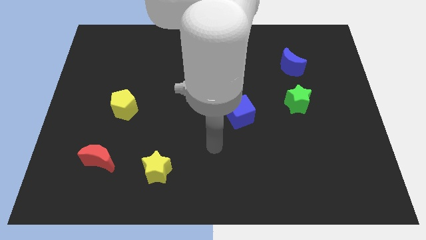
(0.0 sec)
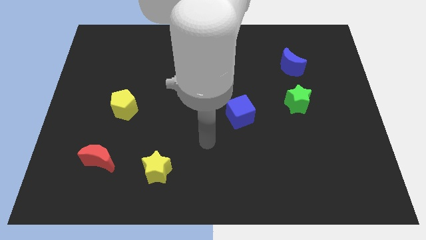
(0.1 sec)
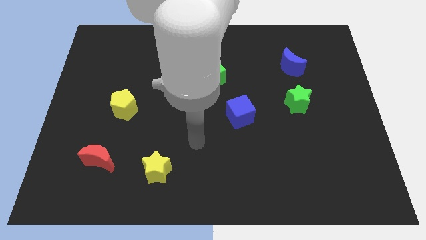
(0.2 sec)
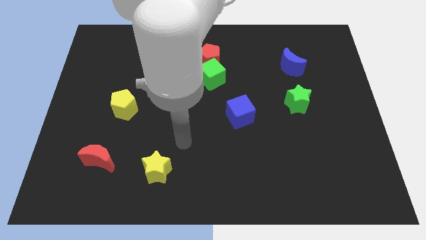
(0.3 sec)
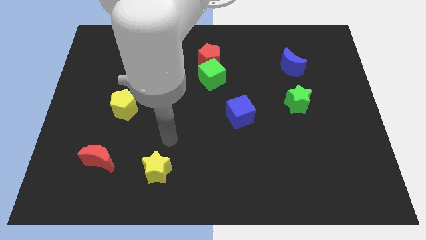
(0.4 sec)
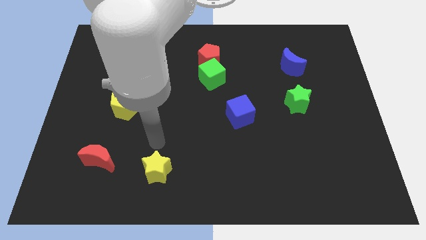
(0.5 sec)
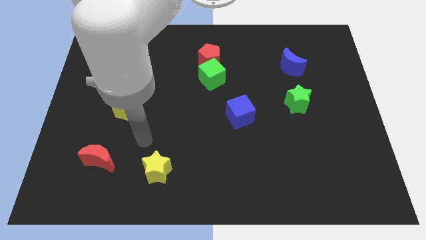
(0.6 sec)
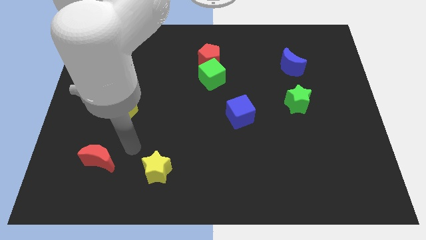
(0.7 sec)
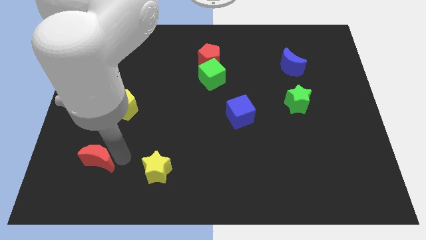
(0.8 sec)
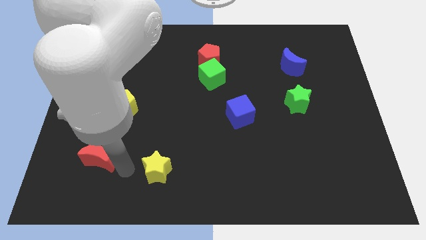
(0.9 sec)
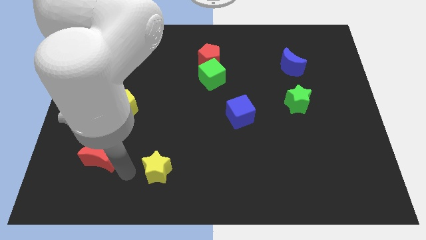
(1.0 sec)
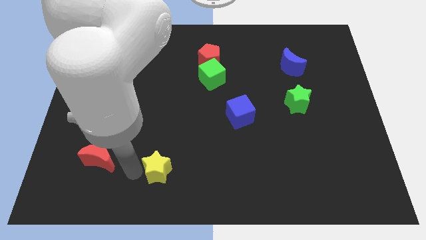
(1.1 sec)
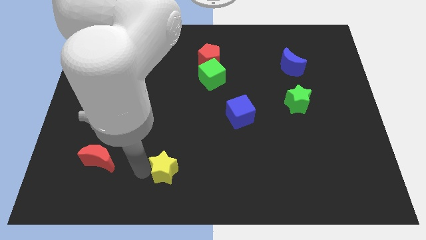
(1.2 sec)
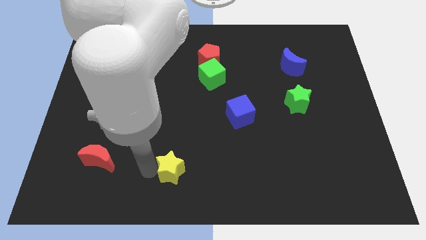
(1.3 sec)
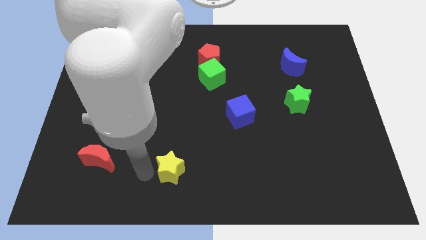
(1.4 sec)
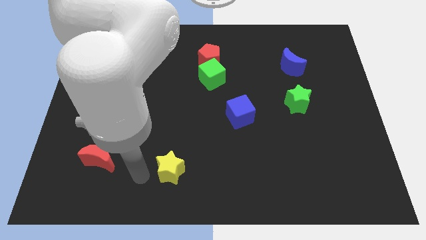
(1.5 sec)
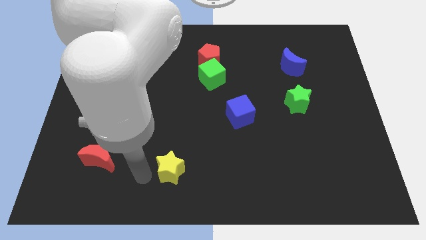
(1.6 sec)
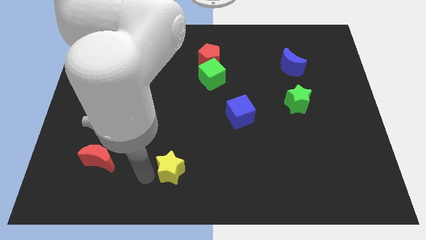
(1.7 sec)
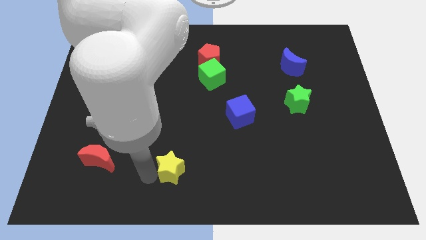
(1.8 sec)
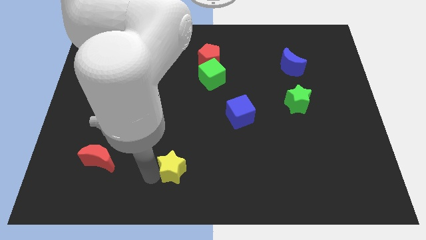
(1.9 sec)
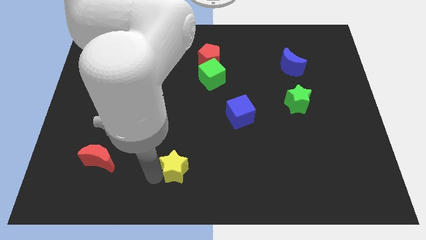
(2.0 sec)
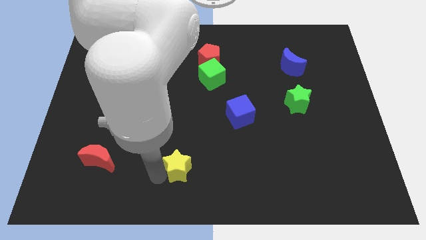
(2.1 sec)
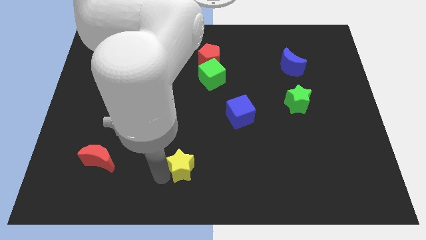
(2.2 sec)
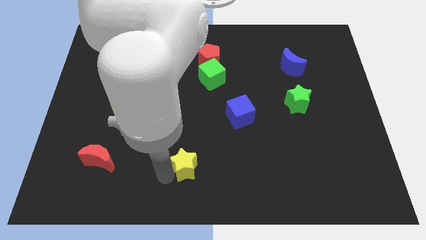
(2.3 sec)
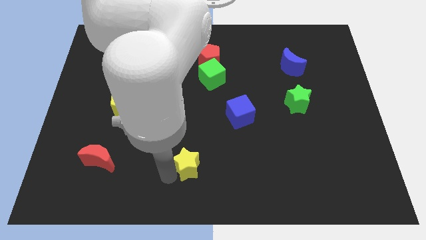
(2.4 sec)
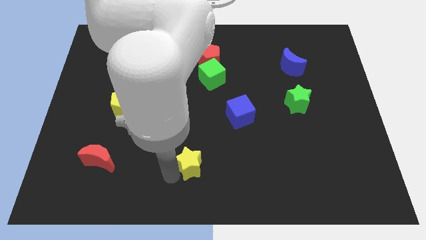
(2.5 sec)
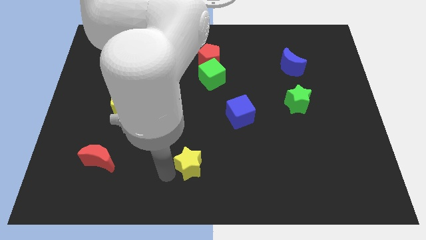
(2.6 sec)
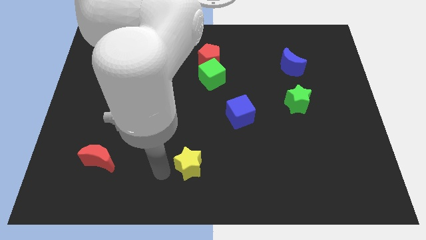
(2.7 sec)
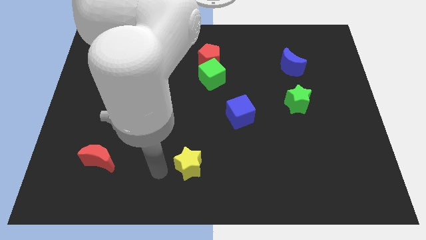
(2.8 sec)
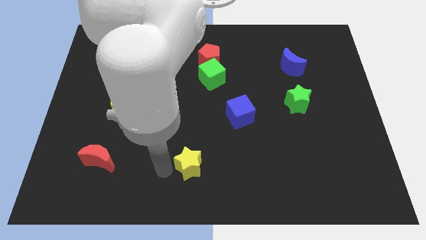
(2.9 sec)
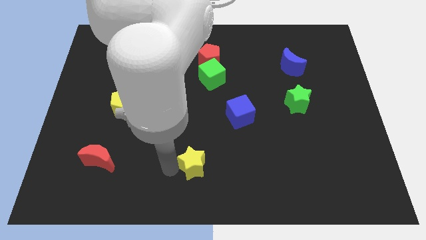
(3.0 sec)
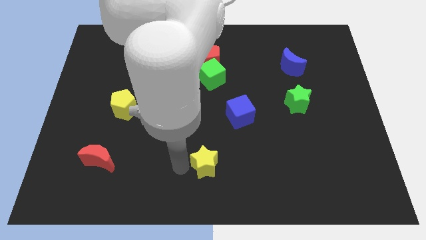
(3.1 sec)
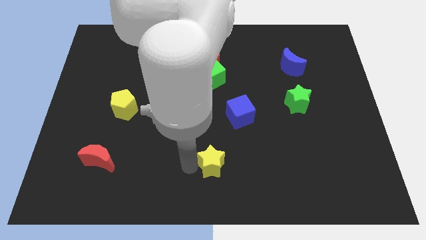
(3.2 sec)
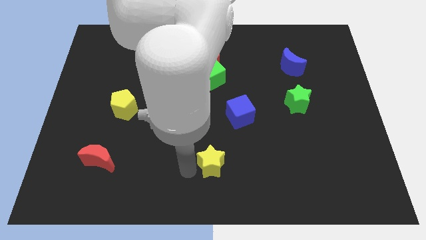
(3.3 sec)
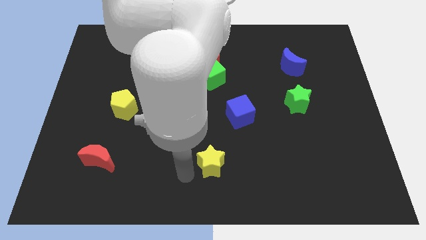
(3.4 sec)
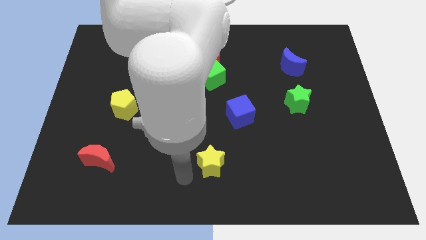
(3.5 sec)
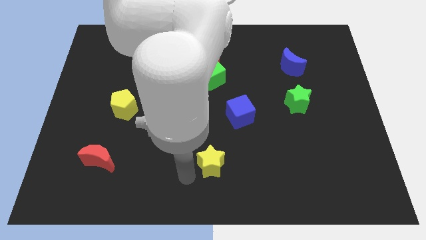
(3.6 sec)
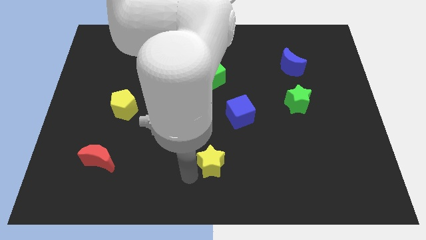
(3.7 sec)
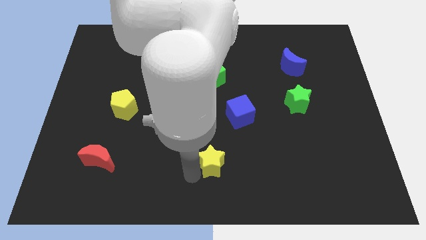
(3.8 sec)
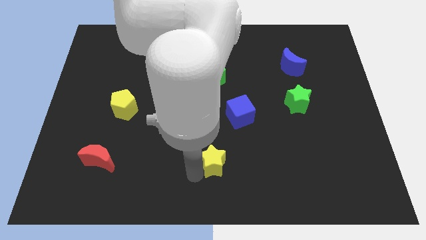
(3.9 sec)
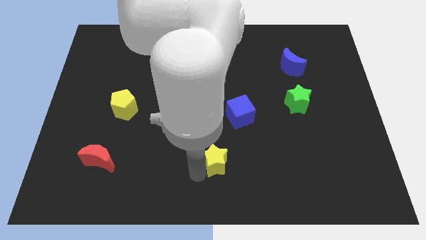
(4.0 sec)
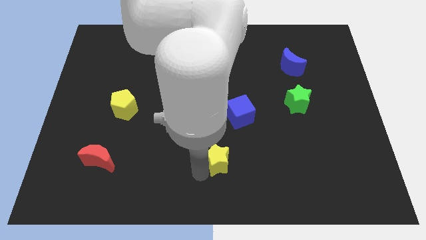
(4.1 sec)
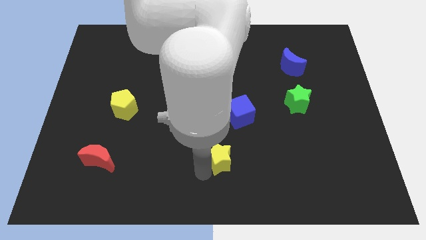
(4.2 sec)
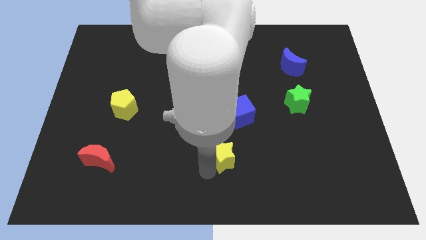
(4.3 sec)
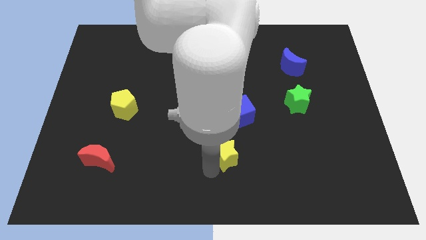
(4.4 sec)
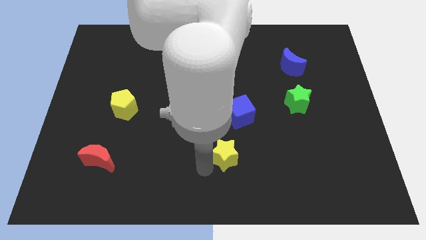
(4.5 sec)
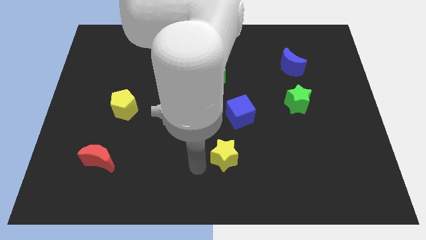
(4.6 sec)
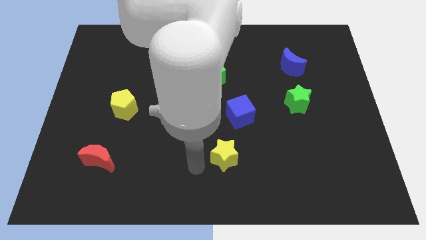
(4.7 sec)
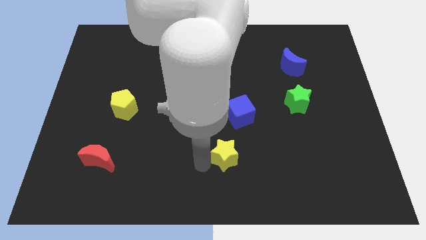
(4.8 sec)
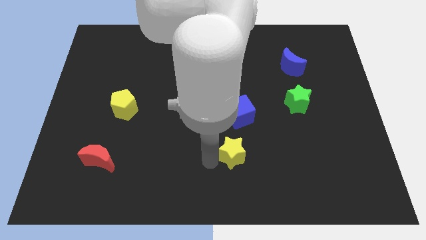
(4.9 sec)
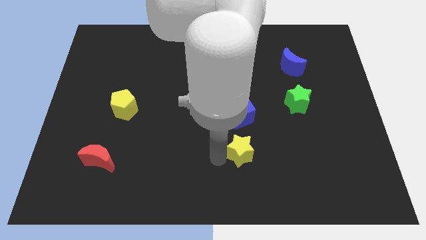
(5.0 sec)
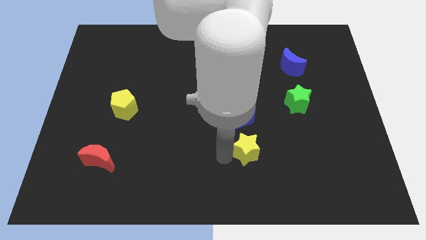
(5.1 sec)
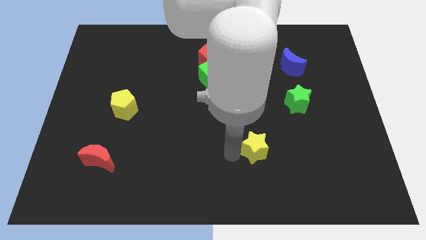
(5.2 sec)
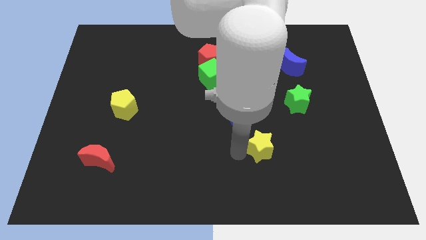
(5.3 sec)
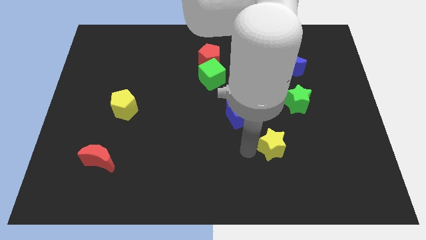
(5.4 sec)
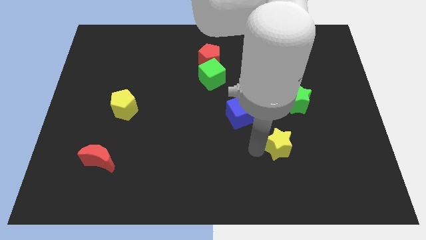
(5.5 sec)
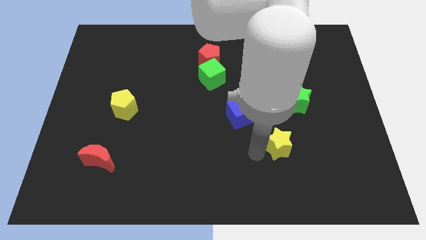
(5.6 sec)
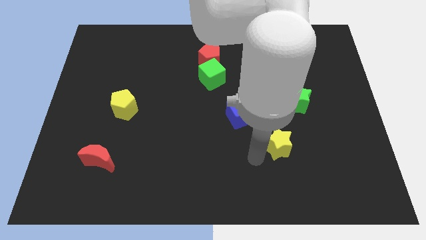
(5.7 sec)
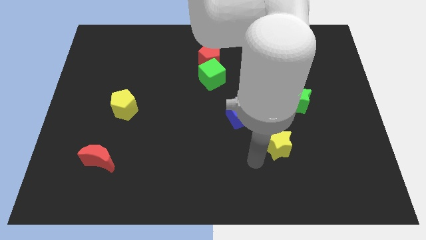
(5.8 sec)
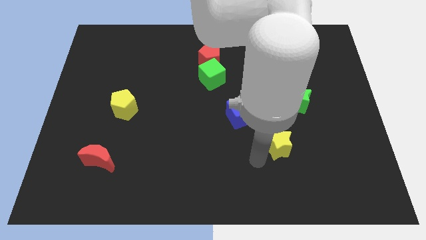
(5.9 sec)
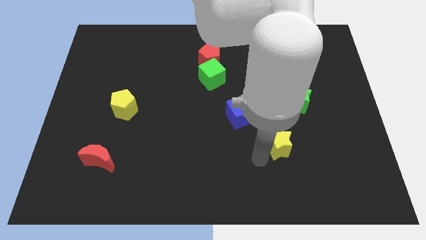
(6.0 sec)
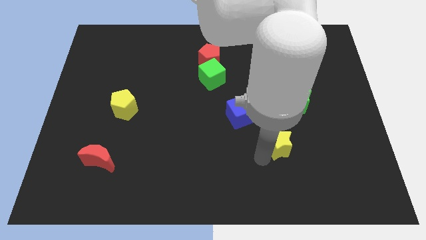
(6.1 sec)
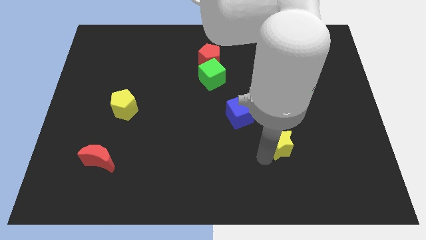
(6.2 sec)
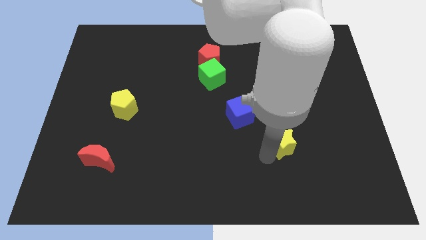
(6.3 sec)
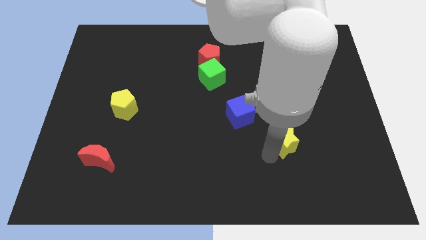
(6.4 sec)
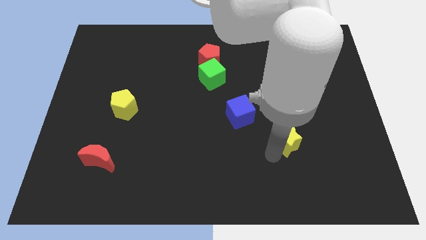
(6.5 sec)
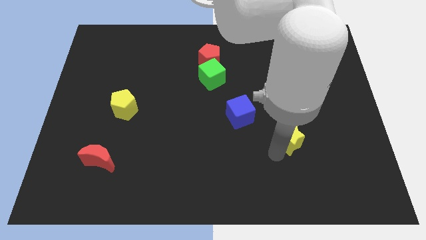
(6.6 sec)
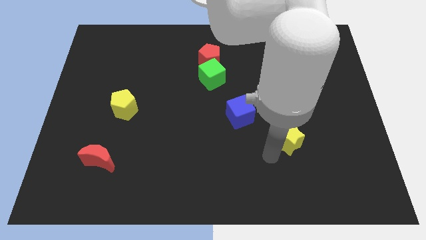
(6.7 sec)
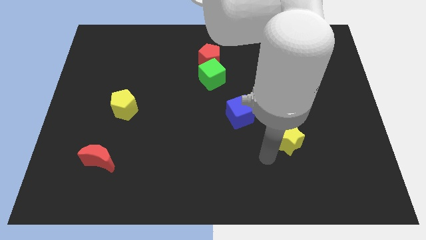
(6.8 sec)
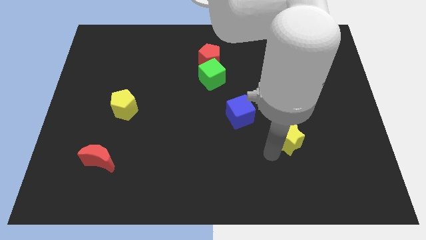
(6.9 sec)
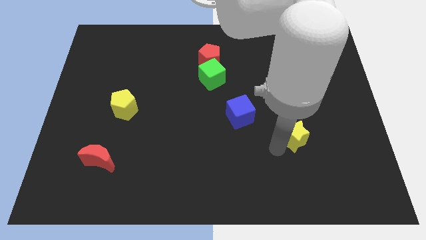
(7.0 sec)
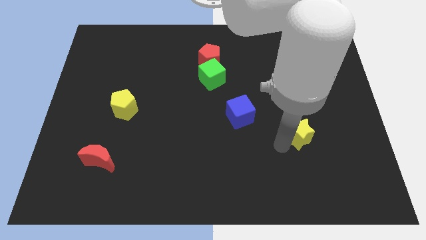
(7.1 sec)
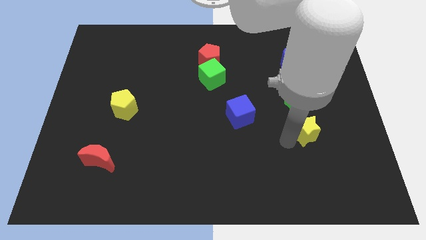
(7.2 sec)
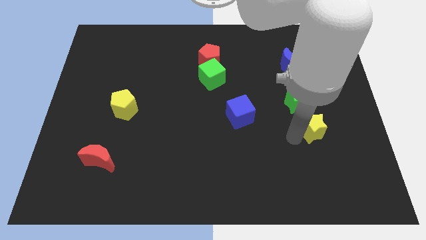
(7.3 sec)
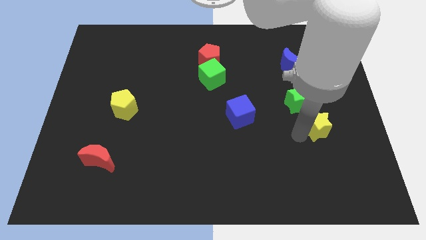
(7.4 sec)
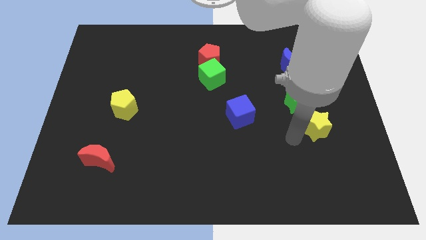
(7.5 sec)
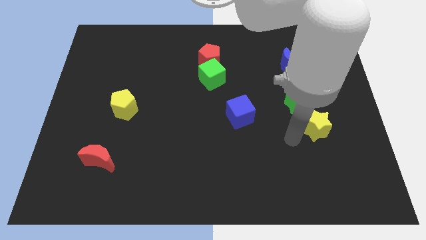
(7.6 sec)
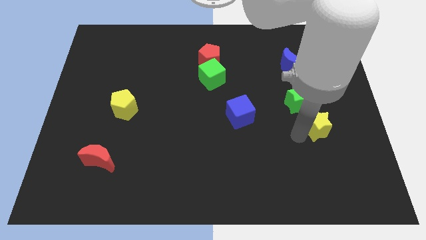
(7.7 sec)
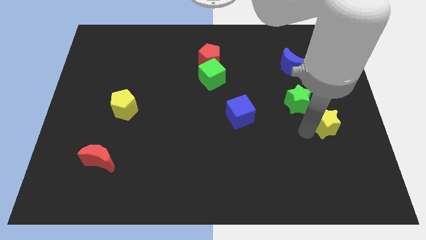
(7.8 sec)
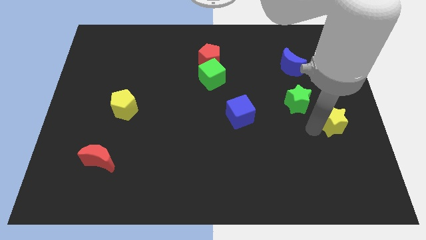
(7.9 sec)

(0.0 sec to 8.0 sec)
slide the yellow star to the right side
